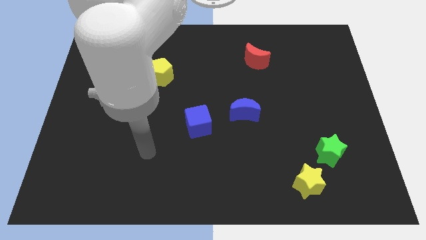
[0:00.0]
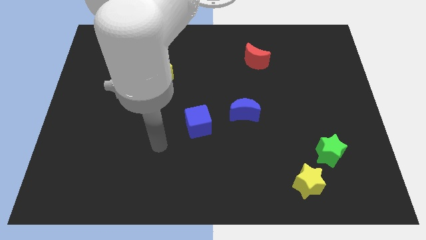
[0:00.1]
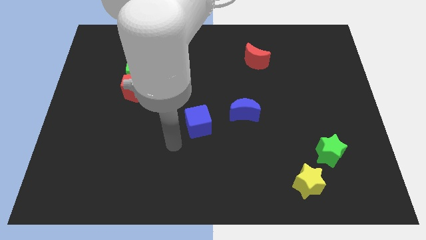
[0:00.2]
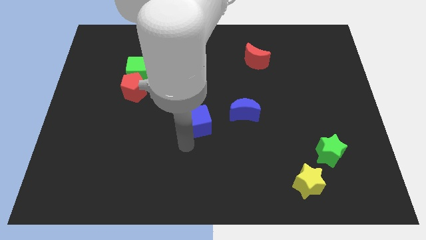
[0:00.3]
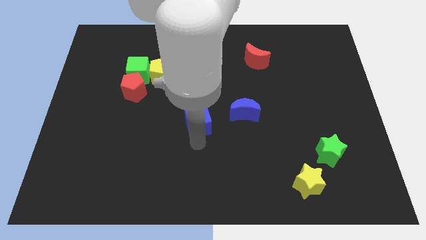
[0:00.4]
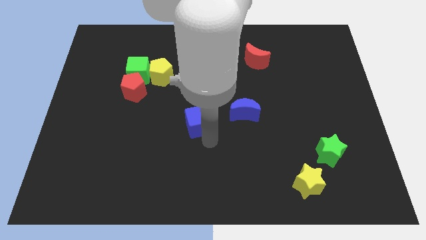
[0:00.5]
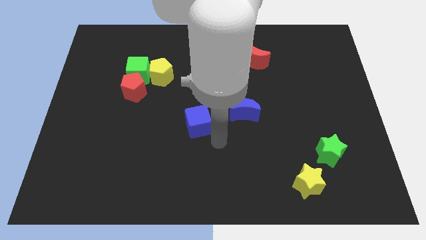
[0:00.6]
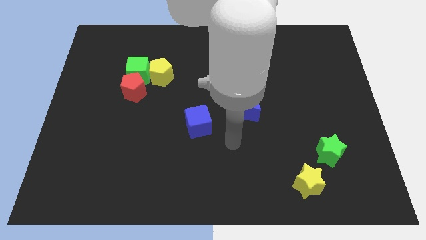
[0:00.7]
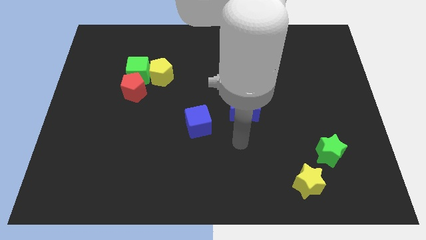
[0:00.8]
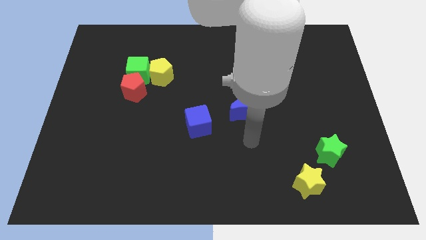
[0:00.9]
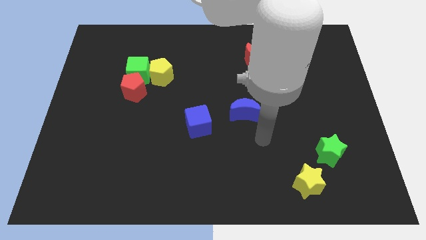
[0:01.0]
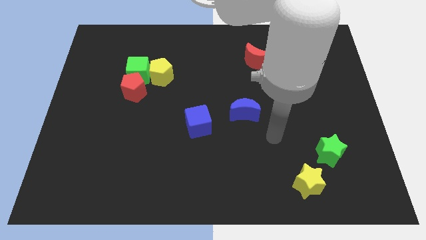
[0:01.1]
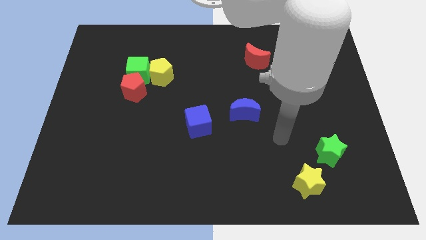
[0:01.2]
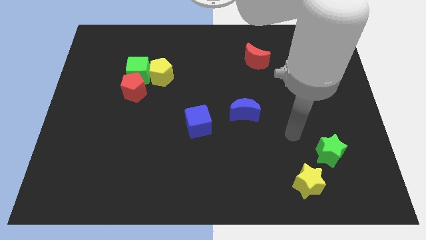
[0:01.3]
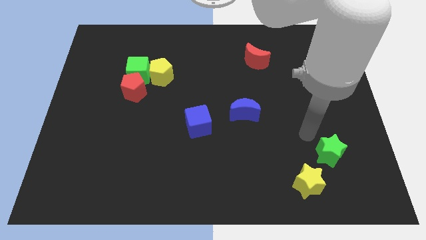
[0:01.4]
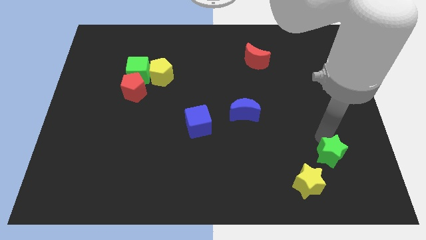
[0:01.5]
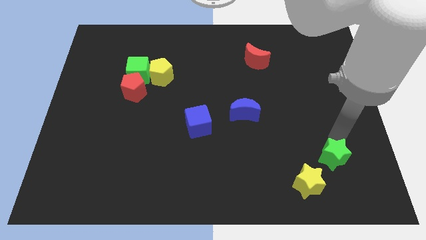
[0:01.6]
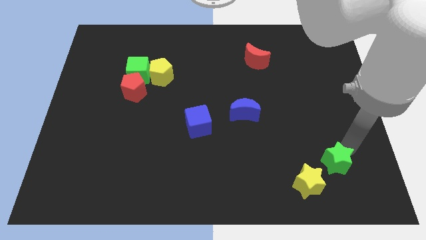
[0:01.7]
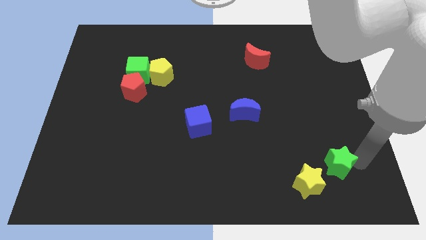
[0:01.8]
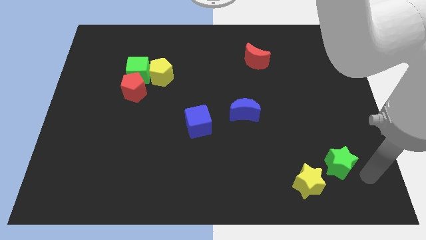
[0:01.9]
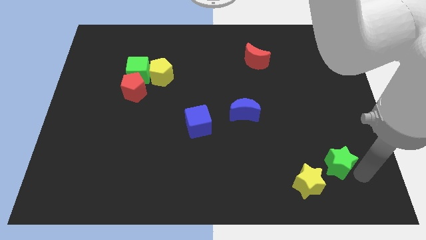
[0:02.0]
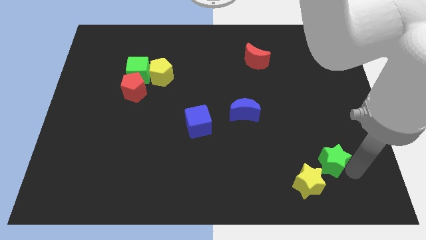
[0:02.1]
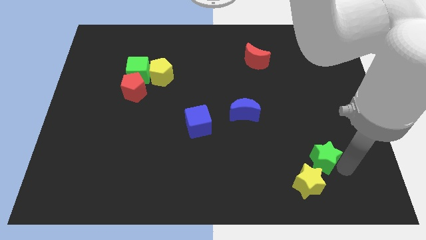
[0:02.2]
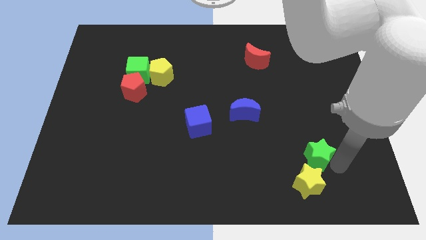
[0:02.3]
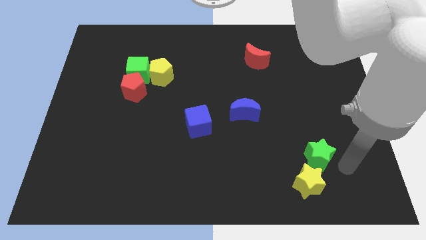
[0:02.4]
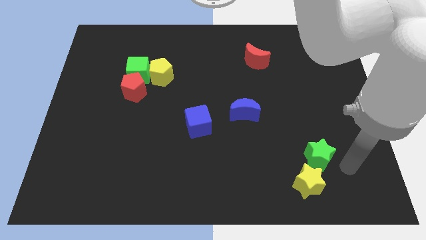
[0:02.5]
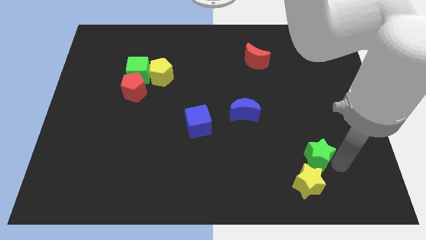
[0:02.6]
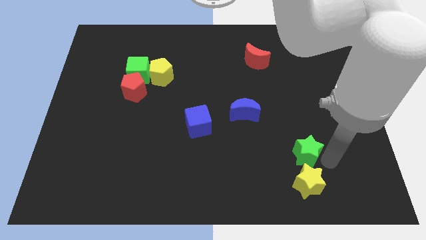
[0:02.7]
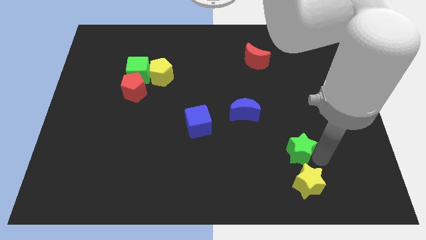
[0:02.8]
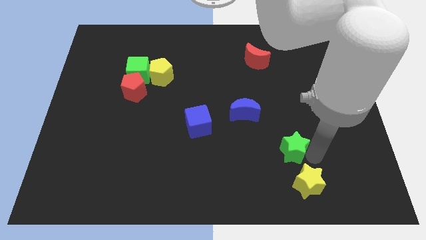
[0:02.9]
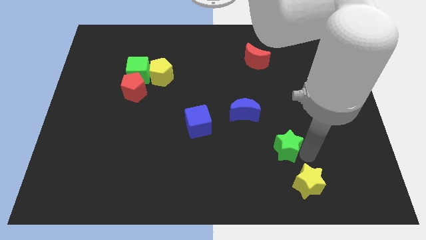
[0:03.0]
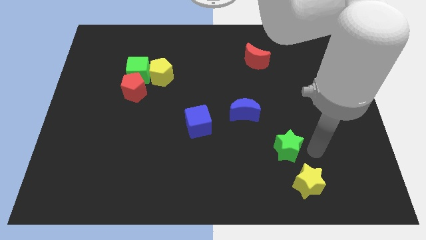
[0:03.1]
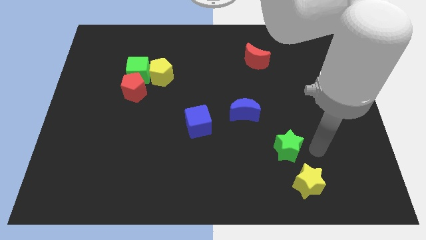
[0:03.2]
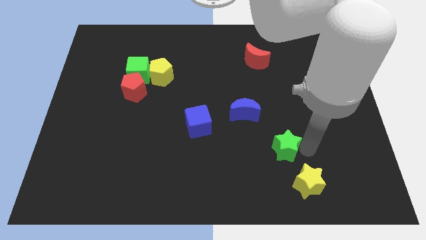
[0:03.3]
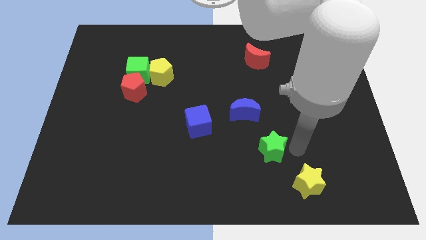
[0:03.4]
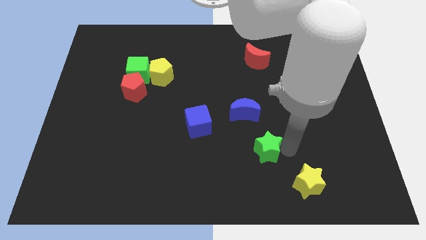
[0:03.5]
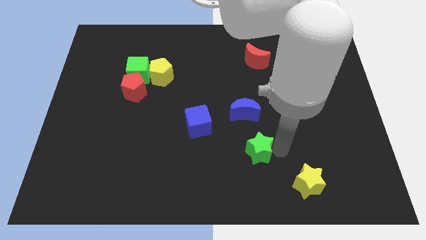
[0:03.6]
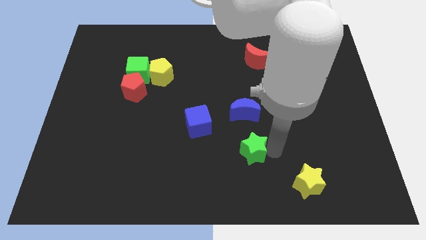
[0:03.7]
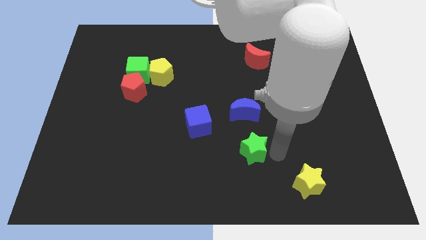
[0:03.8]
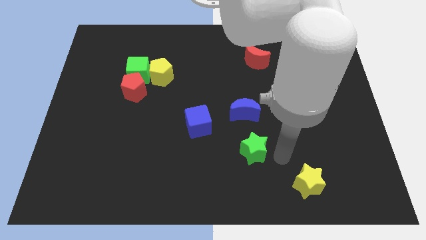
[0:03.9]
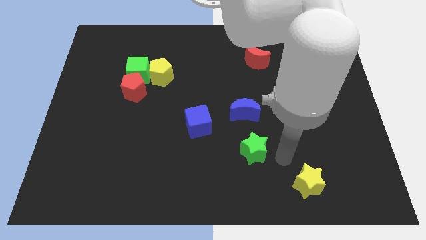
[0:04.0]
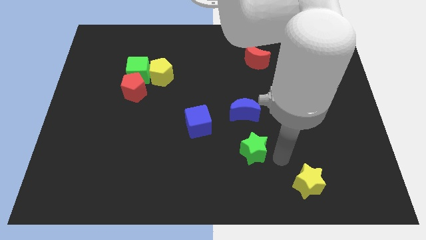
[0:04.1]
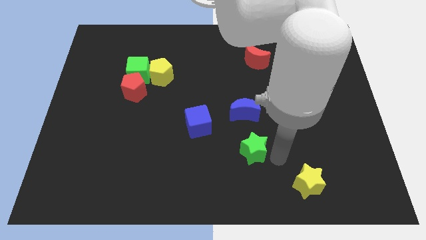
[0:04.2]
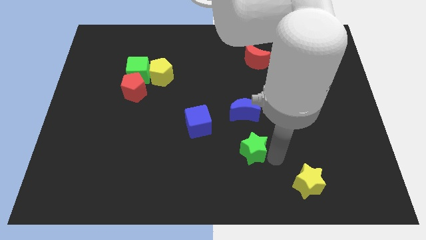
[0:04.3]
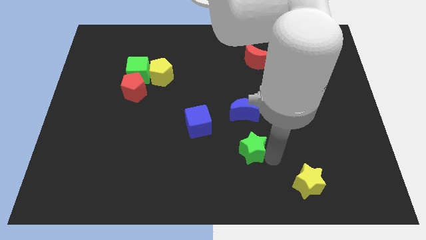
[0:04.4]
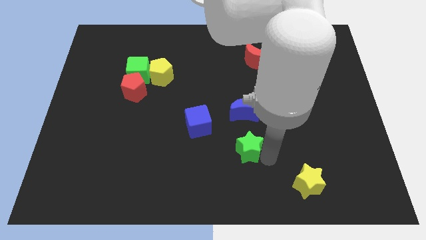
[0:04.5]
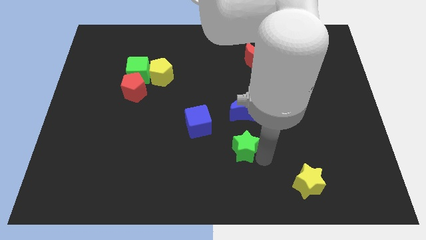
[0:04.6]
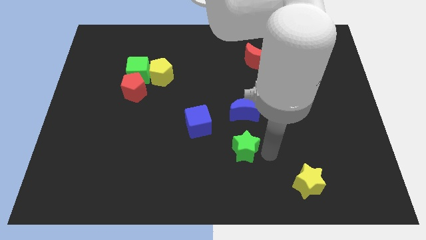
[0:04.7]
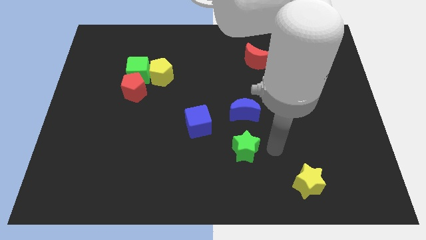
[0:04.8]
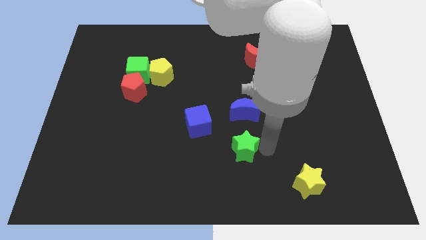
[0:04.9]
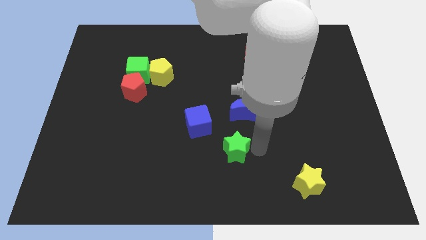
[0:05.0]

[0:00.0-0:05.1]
slide the green star left

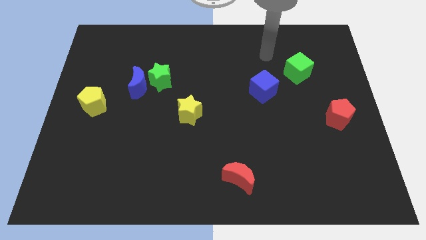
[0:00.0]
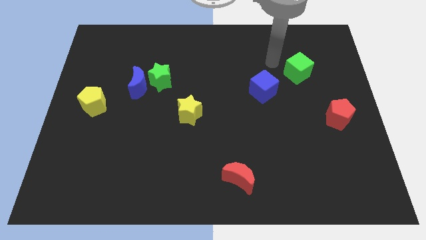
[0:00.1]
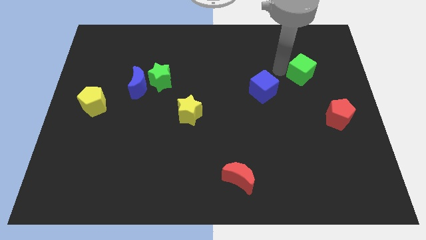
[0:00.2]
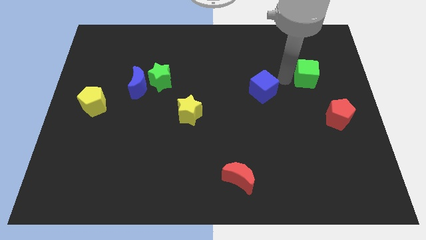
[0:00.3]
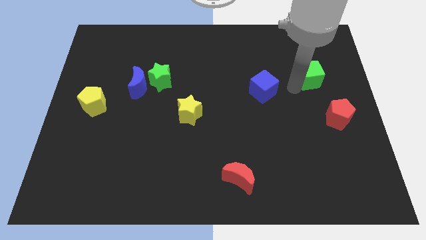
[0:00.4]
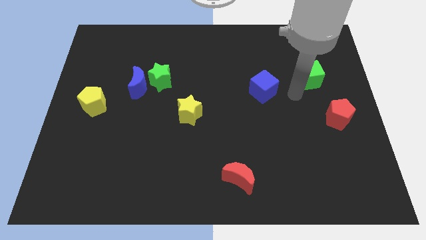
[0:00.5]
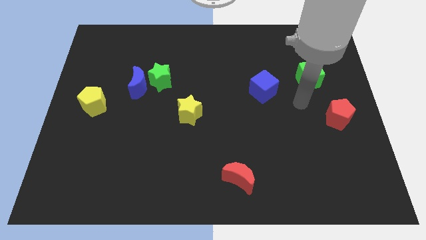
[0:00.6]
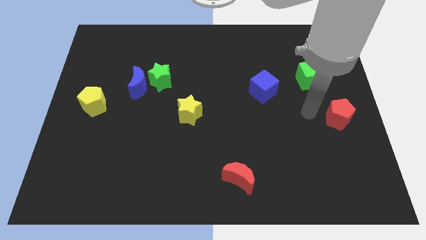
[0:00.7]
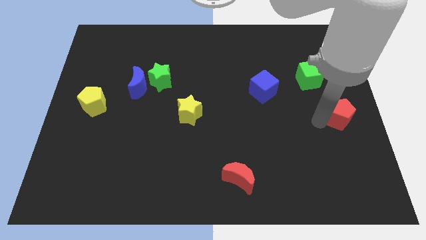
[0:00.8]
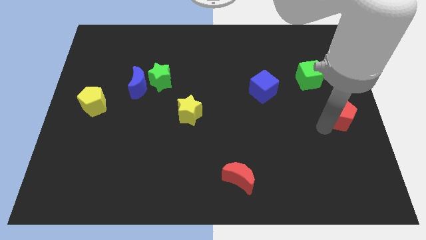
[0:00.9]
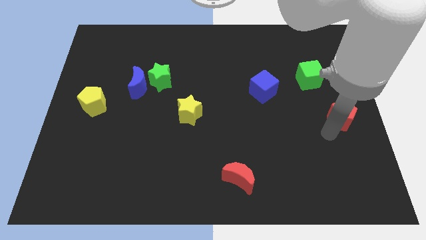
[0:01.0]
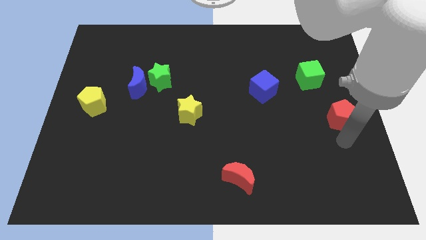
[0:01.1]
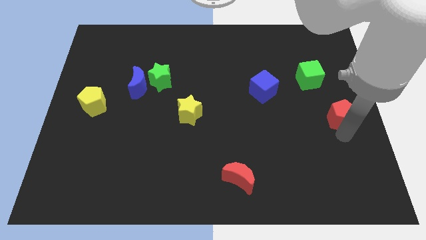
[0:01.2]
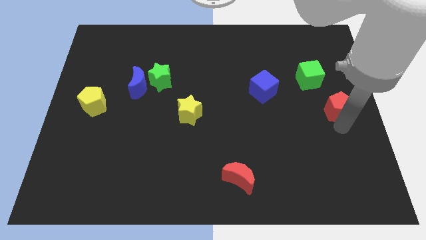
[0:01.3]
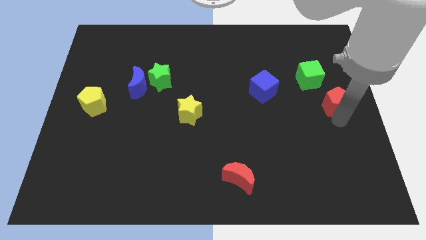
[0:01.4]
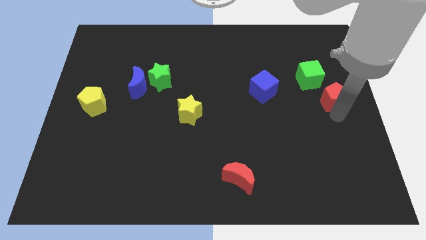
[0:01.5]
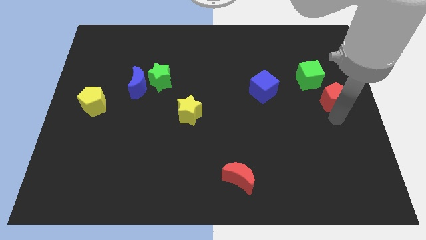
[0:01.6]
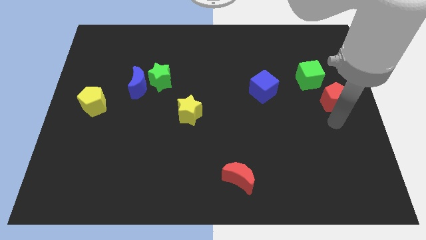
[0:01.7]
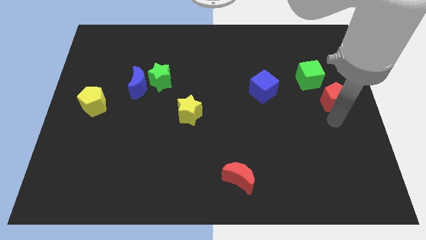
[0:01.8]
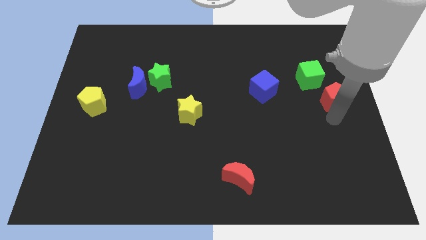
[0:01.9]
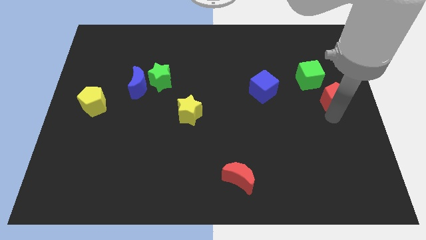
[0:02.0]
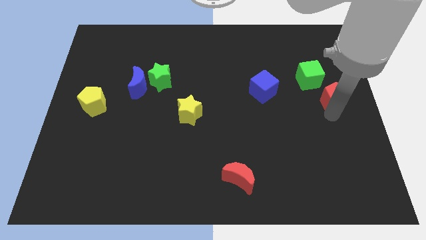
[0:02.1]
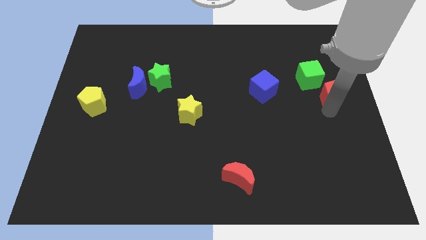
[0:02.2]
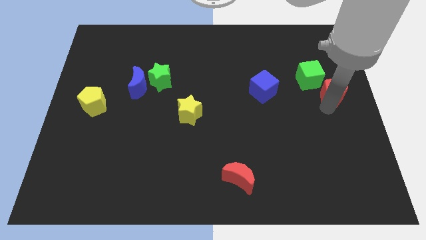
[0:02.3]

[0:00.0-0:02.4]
slide the red pentagon slightly upwards

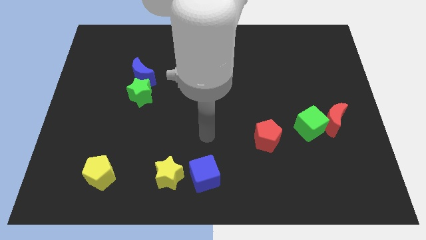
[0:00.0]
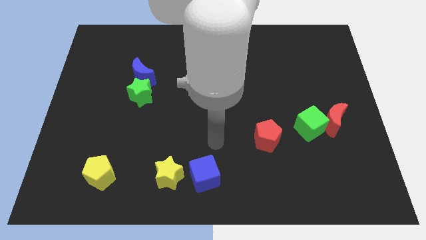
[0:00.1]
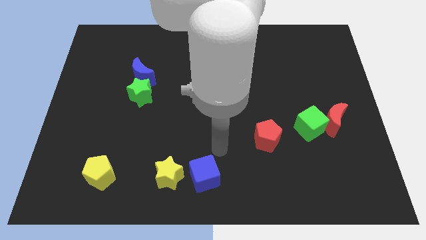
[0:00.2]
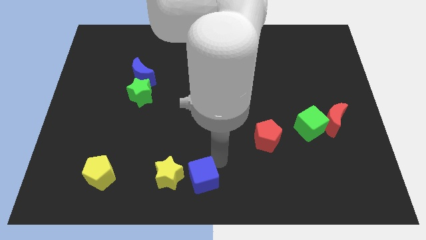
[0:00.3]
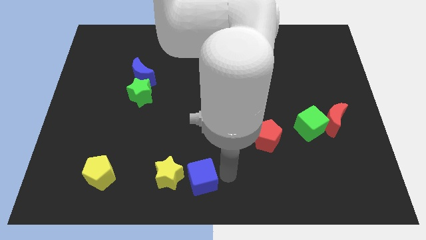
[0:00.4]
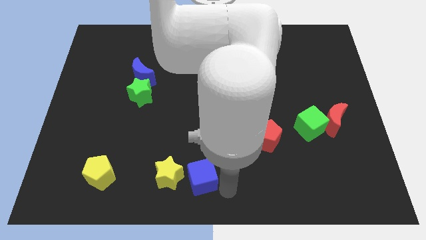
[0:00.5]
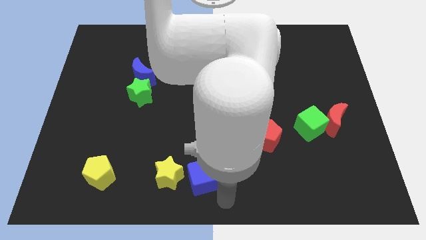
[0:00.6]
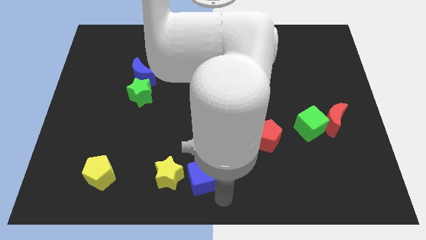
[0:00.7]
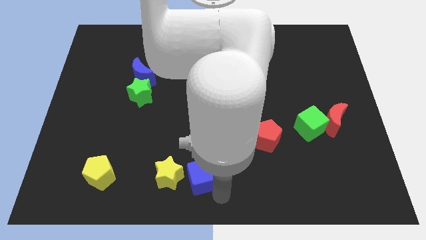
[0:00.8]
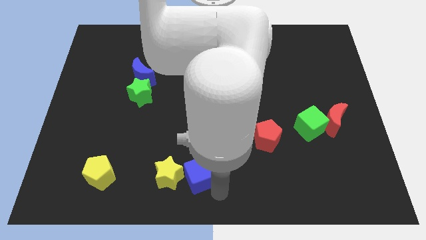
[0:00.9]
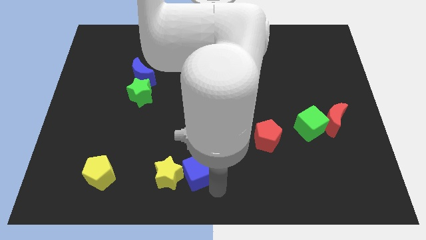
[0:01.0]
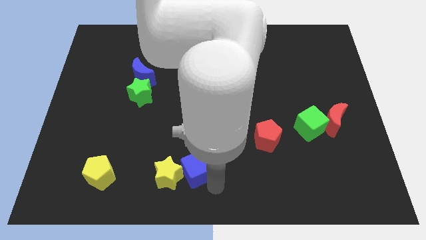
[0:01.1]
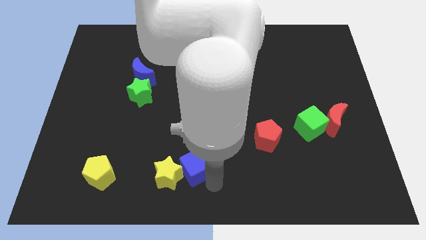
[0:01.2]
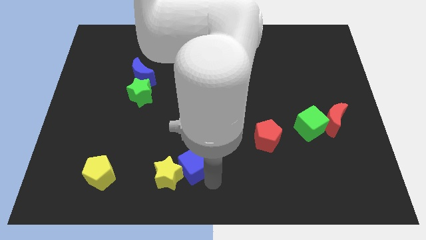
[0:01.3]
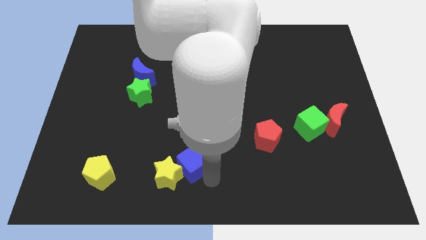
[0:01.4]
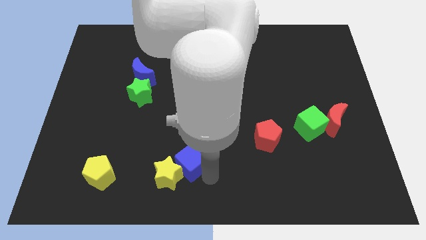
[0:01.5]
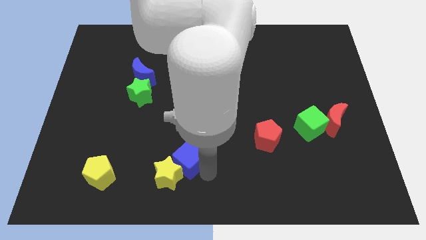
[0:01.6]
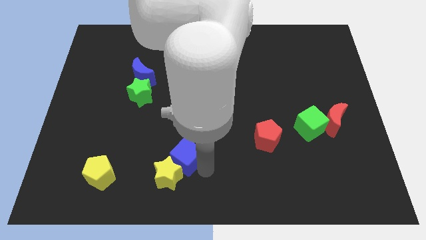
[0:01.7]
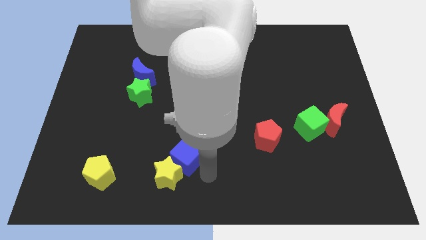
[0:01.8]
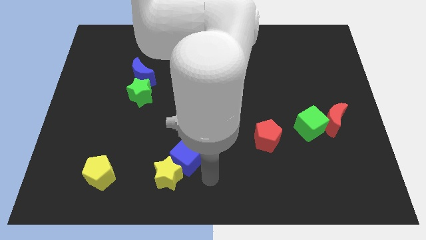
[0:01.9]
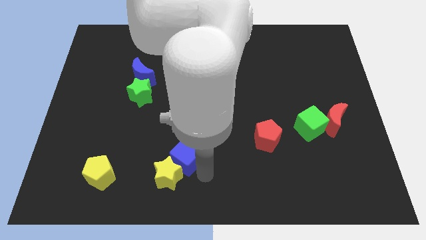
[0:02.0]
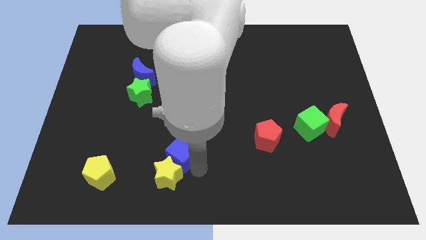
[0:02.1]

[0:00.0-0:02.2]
slide the blue cube a bit diagonally upwards and left
